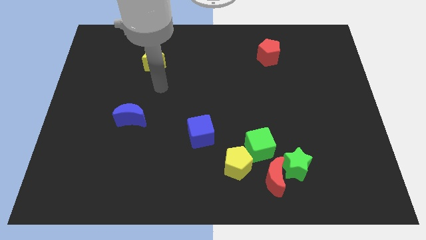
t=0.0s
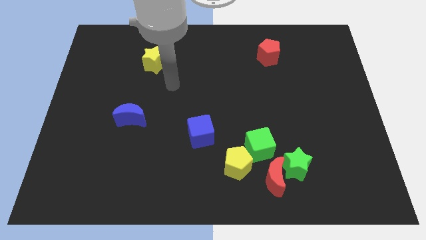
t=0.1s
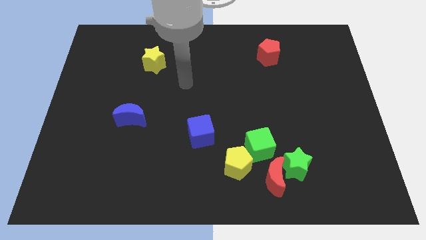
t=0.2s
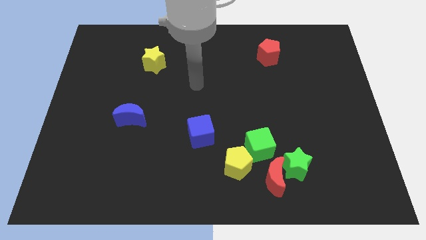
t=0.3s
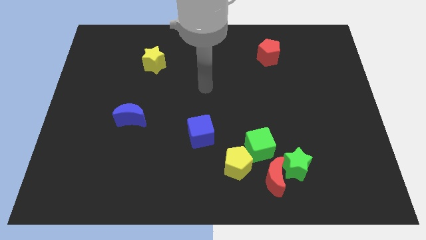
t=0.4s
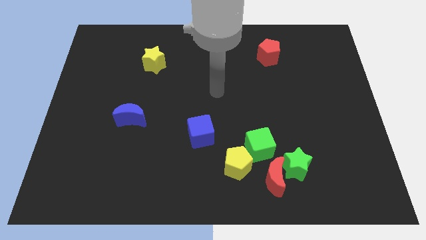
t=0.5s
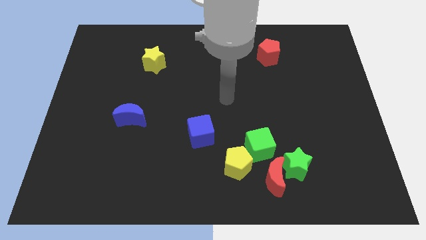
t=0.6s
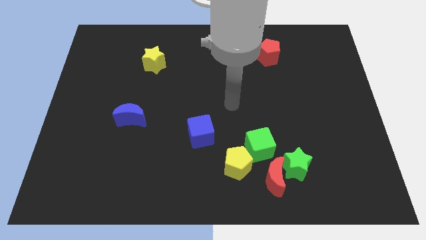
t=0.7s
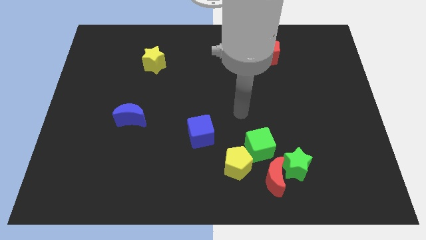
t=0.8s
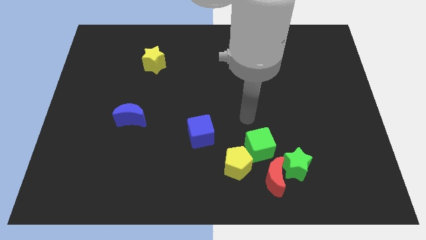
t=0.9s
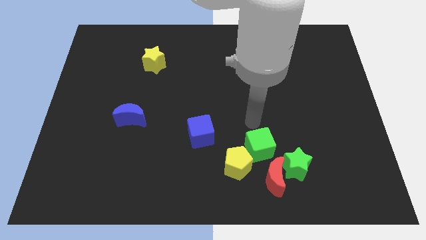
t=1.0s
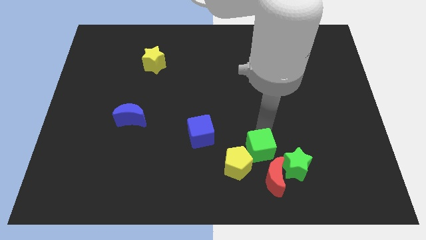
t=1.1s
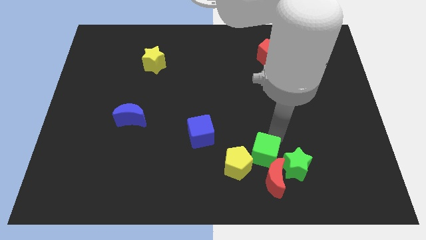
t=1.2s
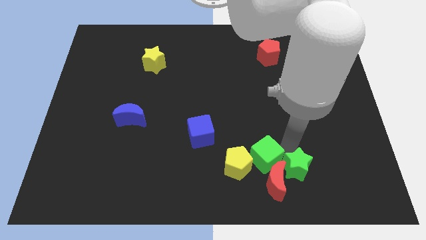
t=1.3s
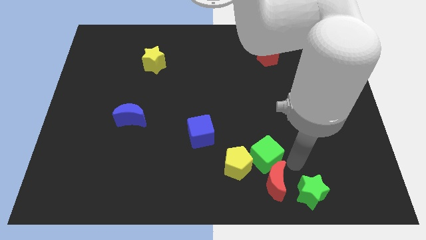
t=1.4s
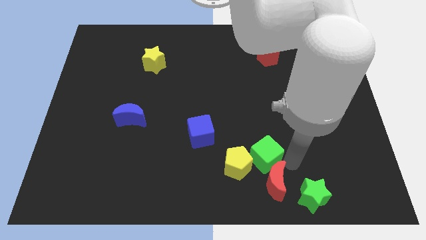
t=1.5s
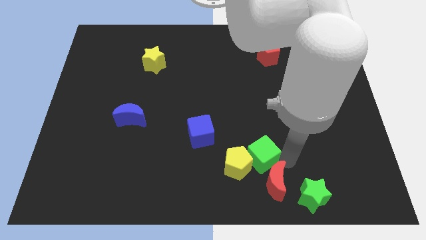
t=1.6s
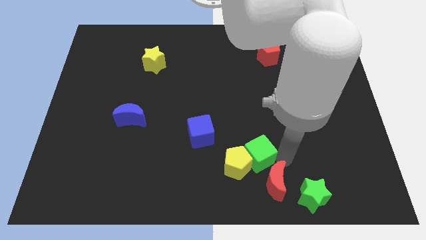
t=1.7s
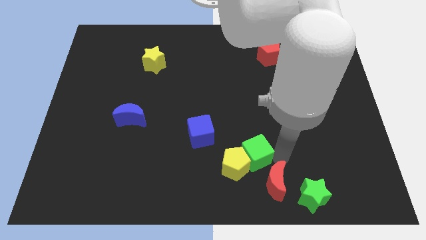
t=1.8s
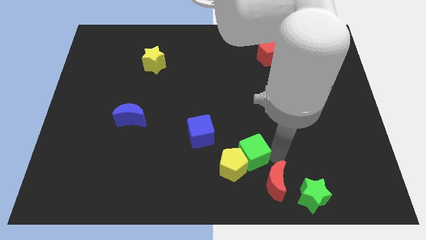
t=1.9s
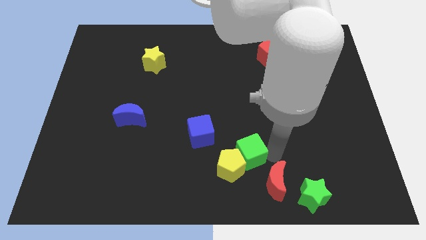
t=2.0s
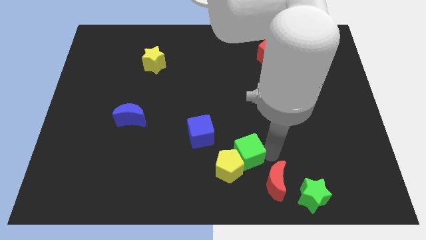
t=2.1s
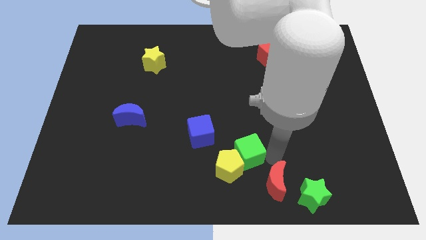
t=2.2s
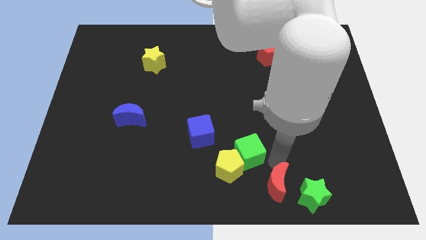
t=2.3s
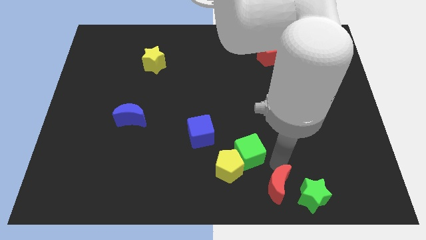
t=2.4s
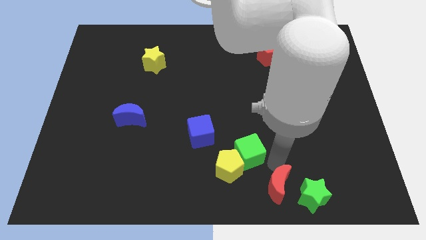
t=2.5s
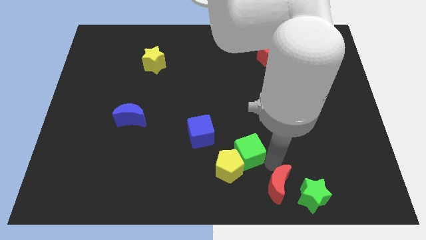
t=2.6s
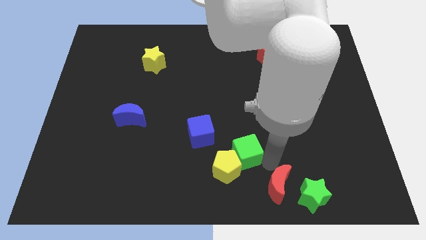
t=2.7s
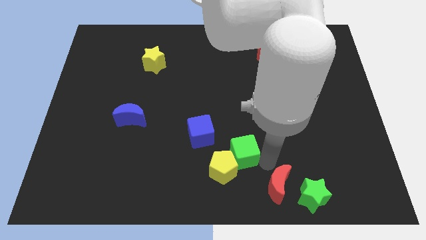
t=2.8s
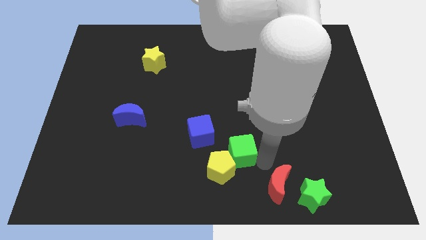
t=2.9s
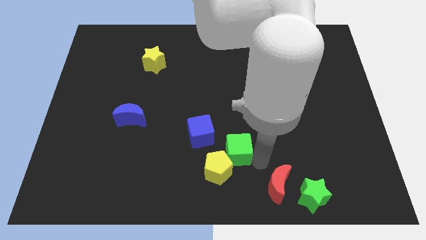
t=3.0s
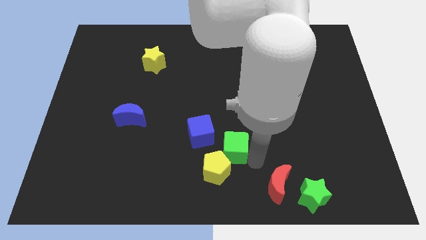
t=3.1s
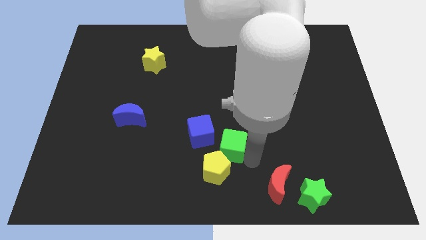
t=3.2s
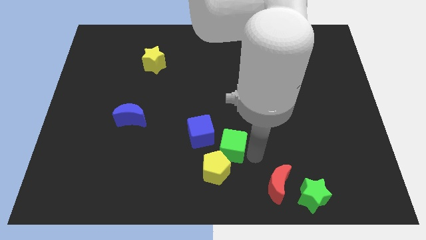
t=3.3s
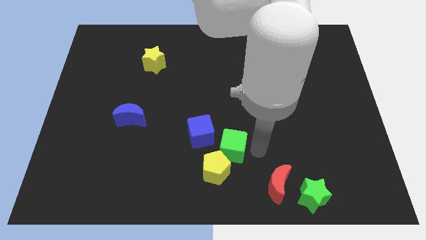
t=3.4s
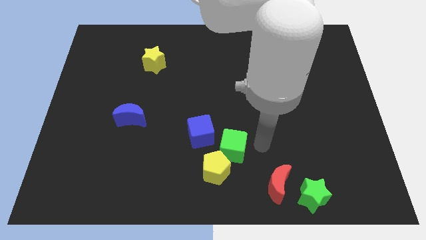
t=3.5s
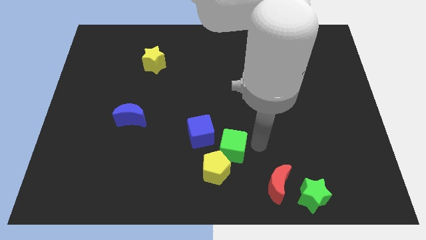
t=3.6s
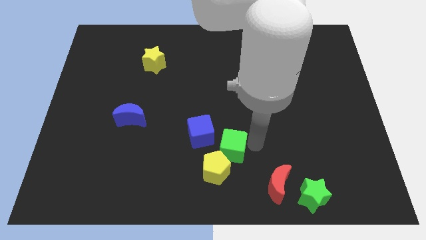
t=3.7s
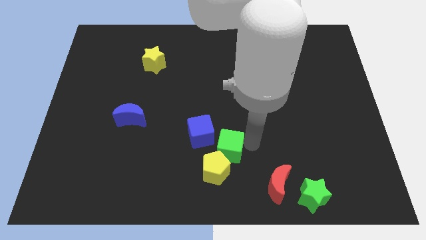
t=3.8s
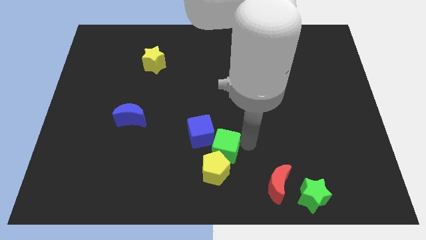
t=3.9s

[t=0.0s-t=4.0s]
slide the green cube to the left somewhat

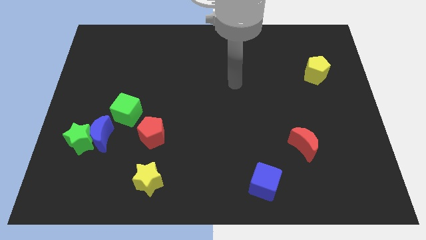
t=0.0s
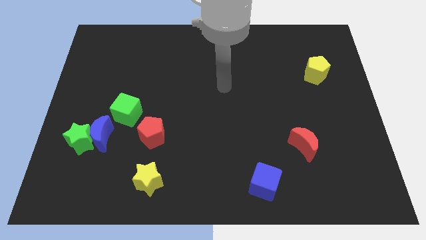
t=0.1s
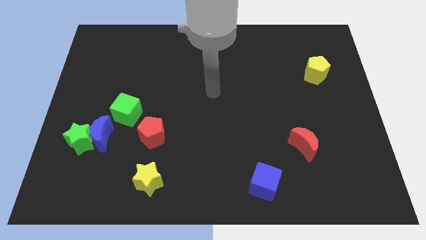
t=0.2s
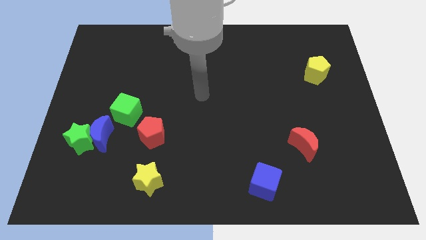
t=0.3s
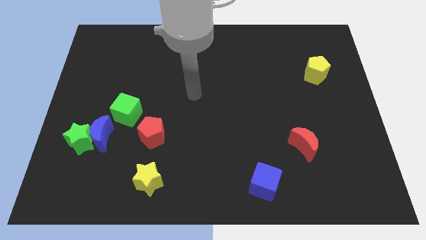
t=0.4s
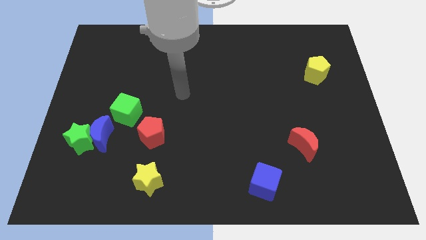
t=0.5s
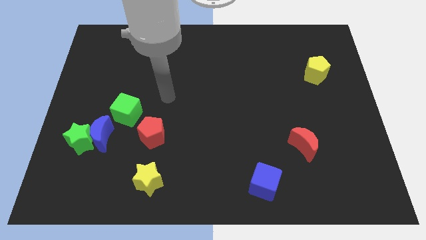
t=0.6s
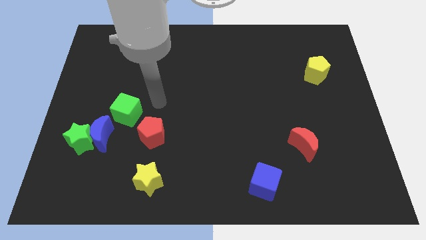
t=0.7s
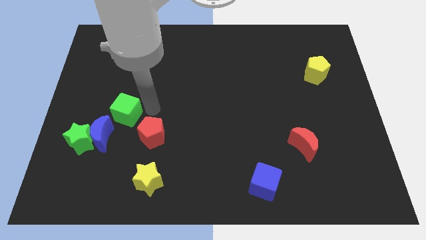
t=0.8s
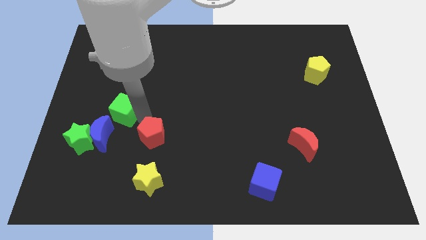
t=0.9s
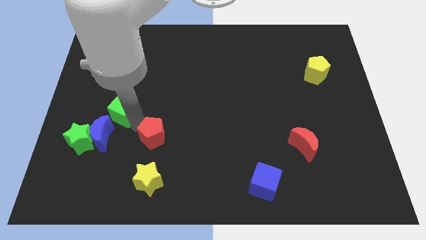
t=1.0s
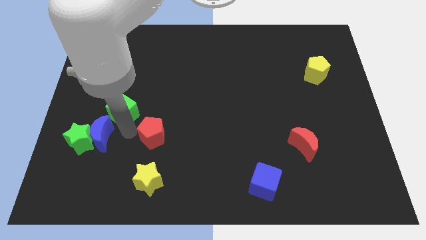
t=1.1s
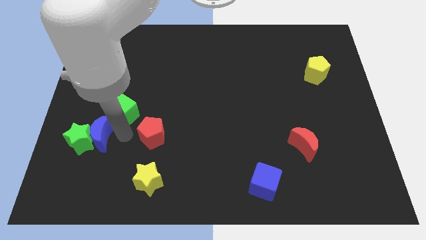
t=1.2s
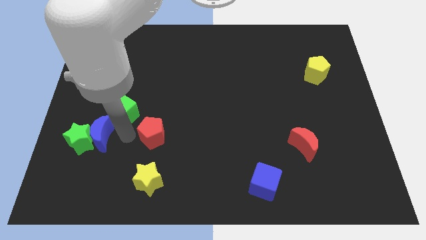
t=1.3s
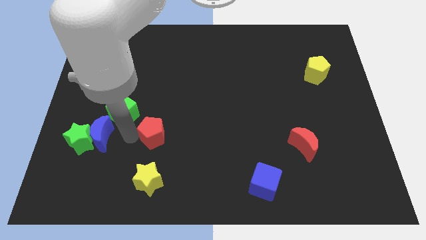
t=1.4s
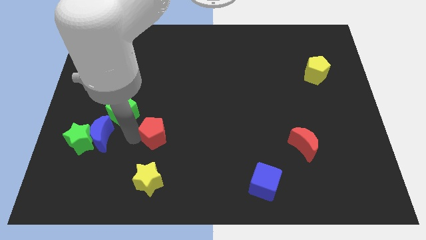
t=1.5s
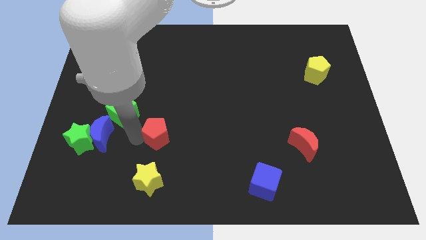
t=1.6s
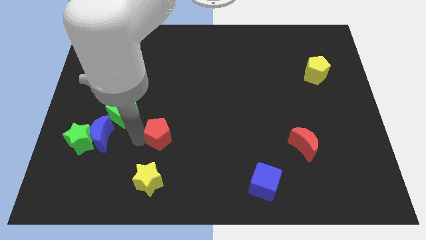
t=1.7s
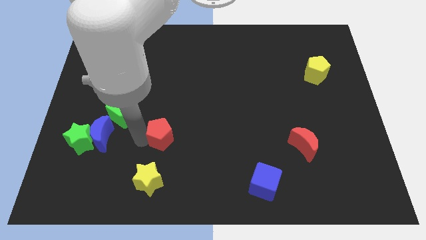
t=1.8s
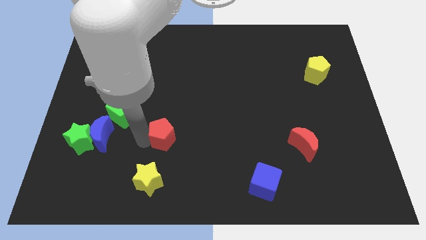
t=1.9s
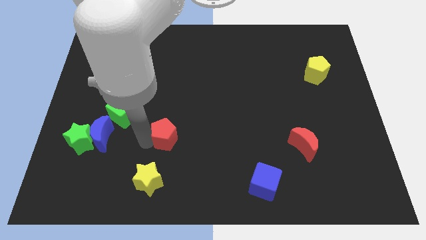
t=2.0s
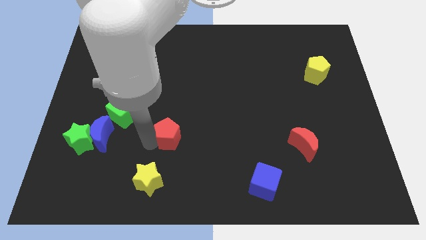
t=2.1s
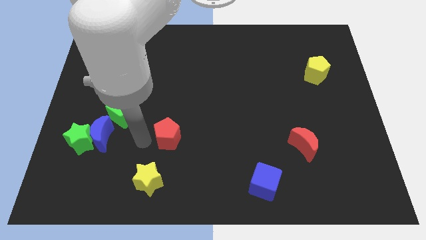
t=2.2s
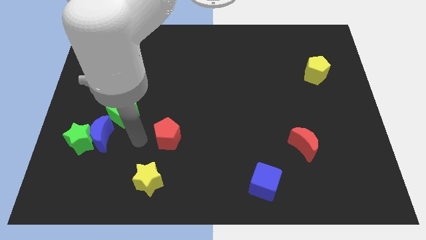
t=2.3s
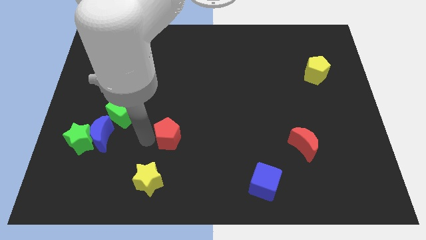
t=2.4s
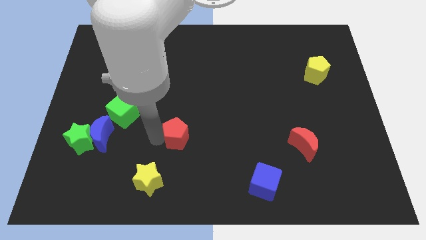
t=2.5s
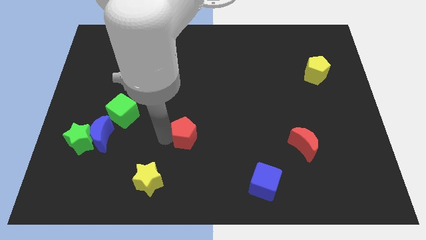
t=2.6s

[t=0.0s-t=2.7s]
slightly move the red pentagon right

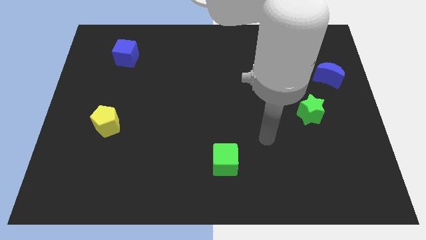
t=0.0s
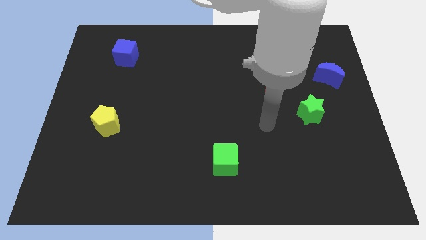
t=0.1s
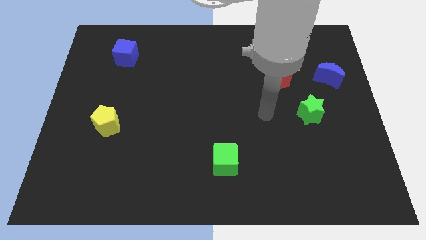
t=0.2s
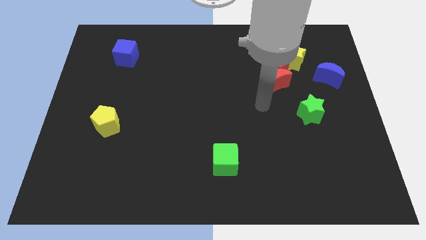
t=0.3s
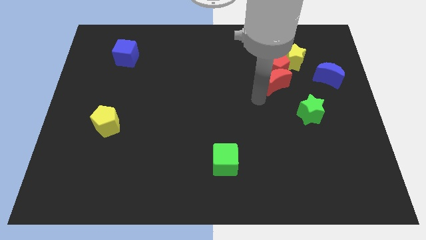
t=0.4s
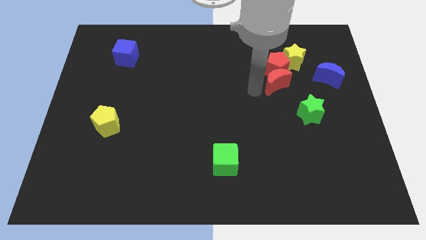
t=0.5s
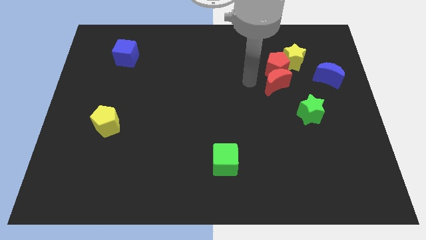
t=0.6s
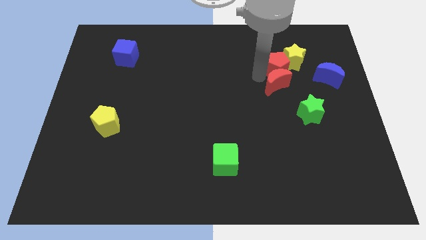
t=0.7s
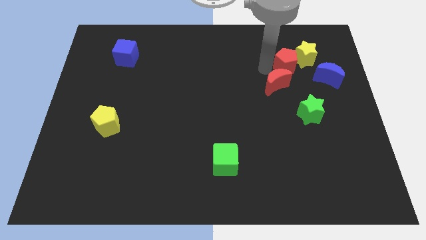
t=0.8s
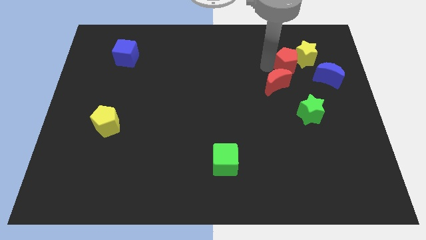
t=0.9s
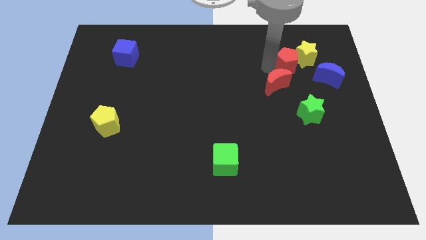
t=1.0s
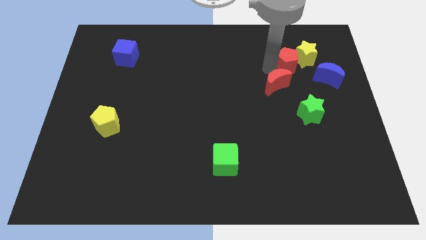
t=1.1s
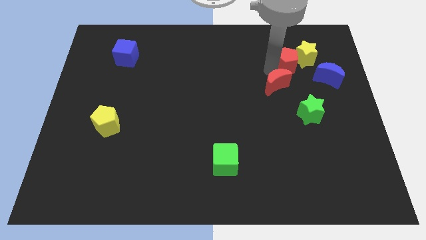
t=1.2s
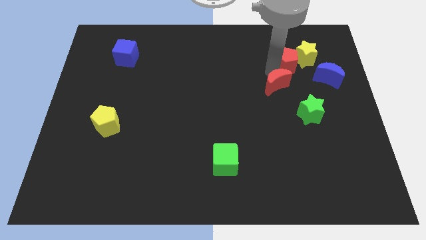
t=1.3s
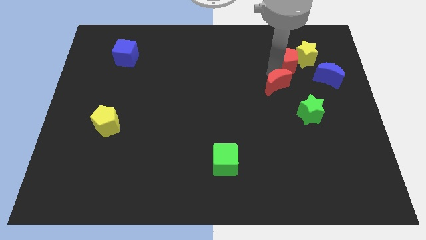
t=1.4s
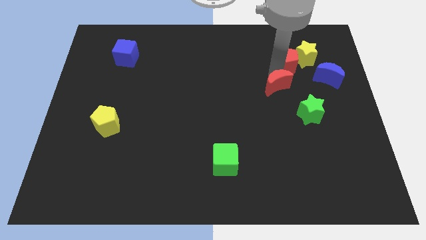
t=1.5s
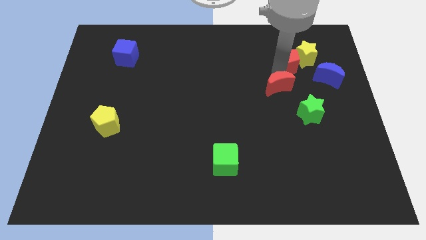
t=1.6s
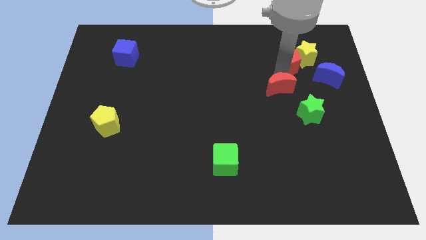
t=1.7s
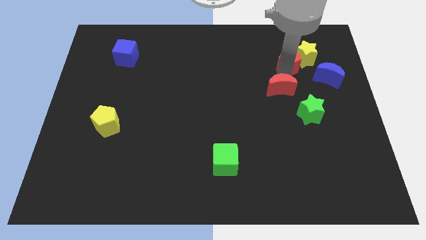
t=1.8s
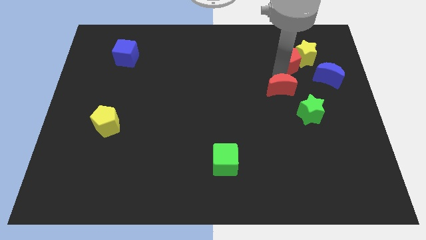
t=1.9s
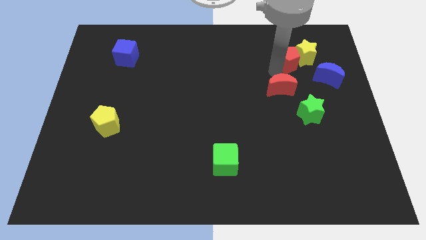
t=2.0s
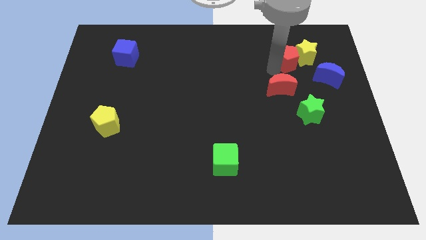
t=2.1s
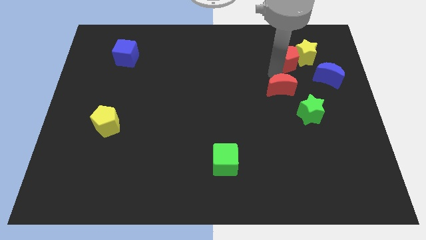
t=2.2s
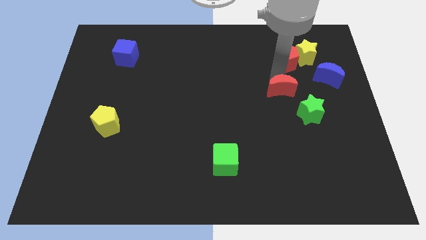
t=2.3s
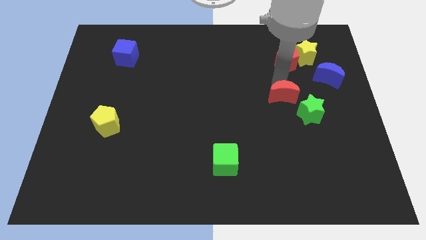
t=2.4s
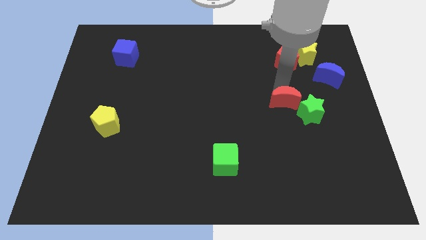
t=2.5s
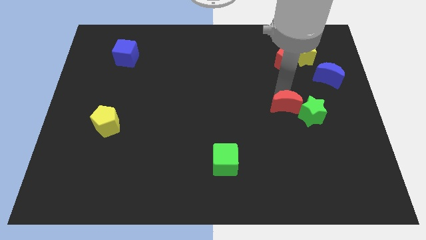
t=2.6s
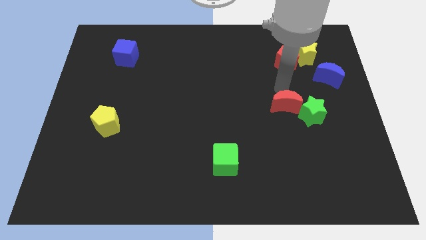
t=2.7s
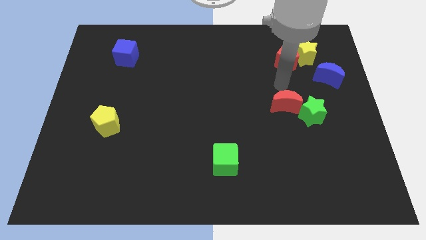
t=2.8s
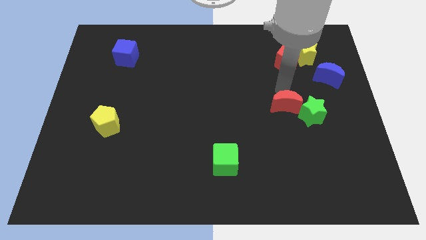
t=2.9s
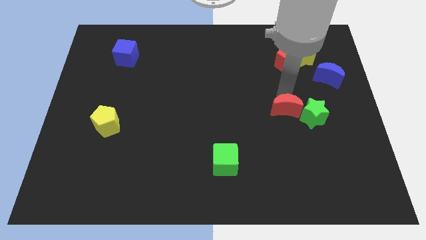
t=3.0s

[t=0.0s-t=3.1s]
move the red moon a little bit downwards
